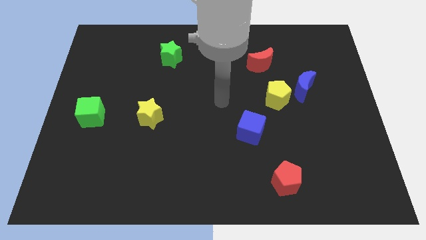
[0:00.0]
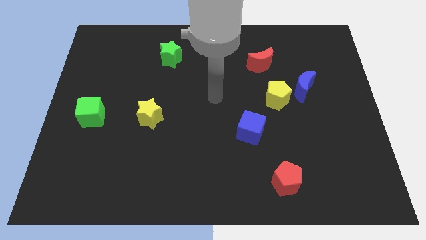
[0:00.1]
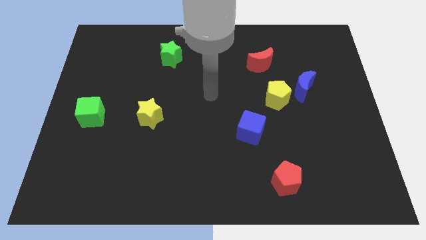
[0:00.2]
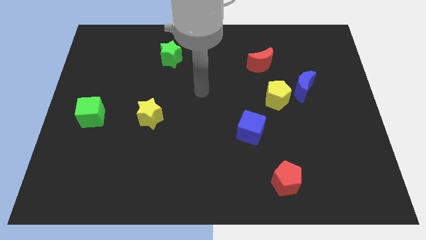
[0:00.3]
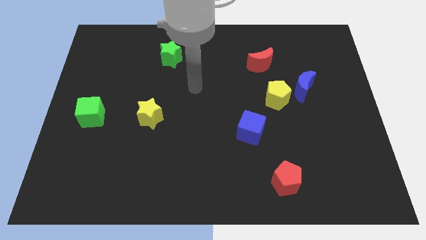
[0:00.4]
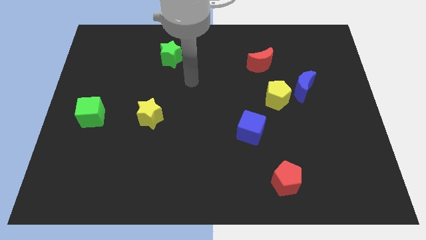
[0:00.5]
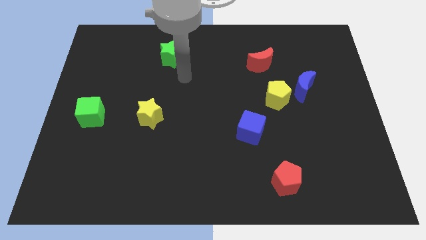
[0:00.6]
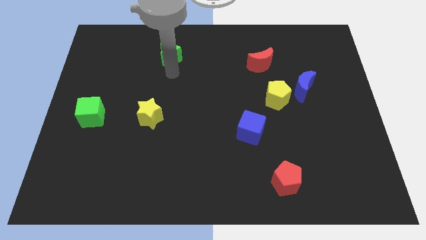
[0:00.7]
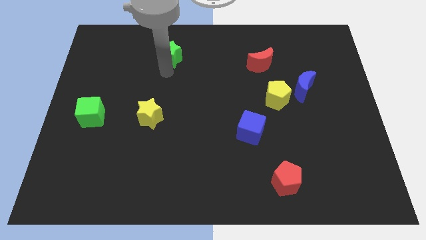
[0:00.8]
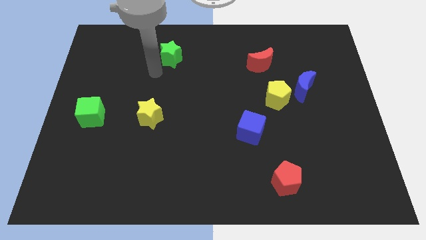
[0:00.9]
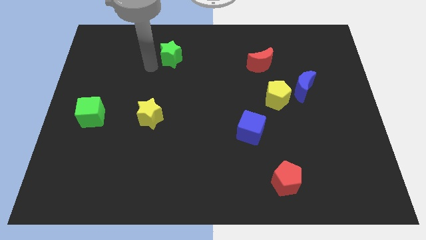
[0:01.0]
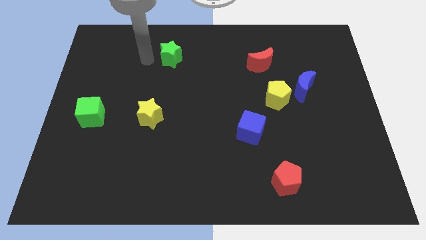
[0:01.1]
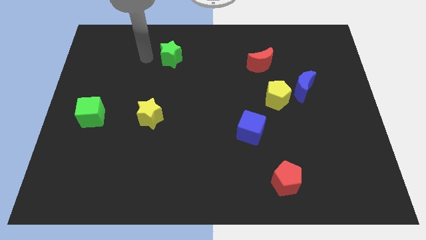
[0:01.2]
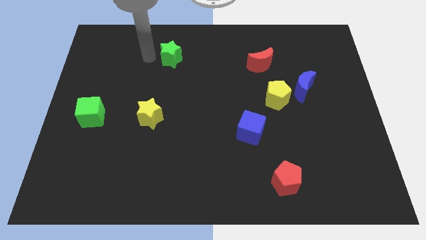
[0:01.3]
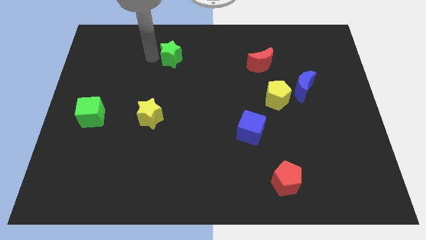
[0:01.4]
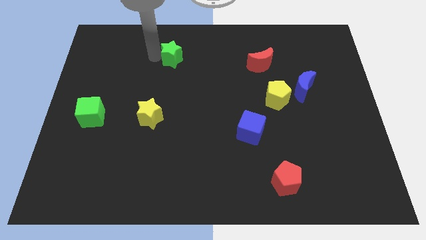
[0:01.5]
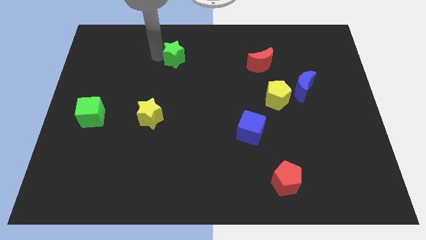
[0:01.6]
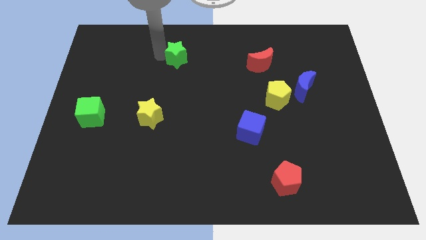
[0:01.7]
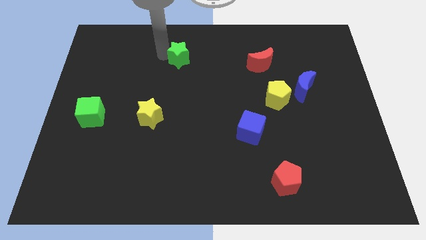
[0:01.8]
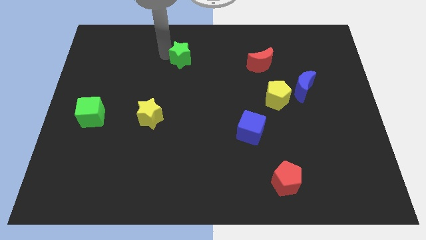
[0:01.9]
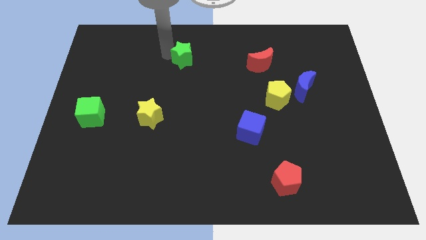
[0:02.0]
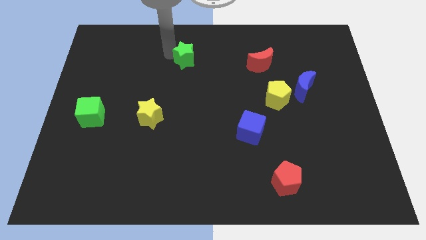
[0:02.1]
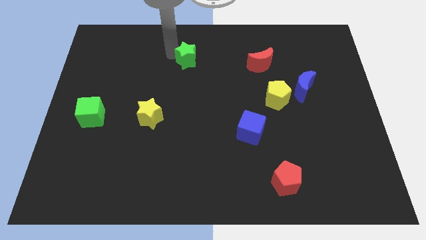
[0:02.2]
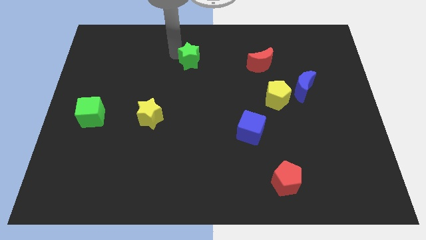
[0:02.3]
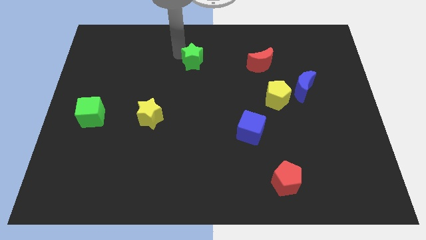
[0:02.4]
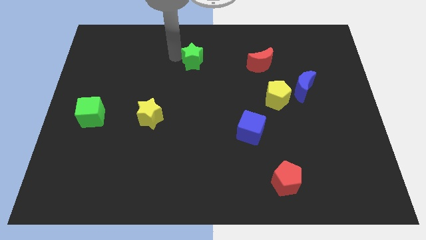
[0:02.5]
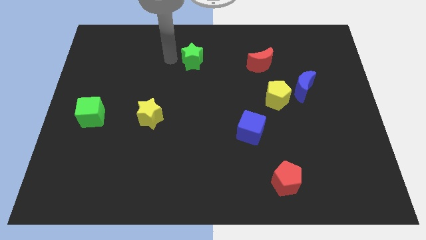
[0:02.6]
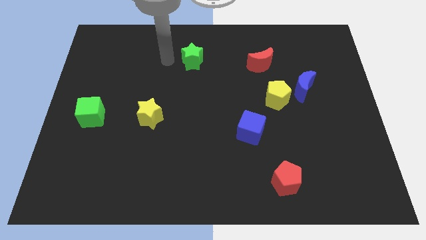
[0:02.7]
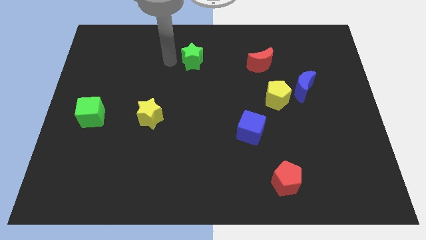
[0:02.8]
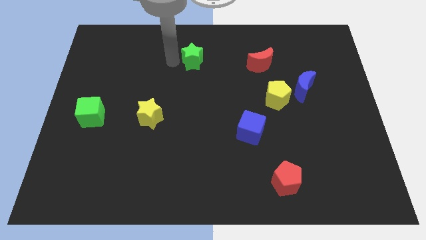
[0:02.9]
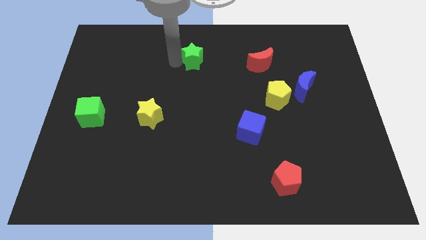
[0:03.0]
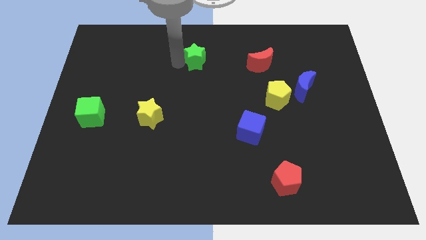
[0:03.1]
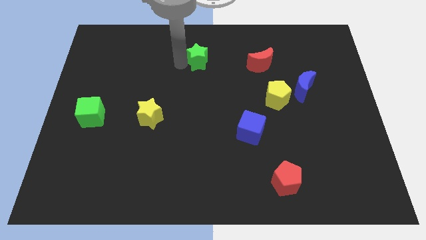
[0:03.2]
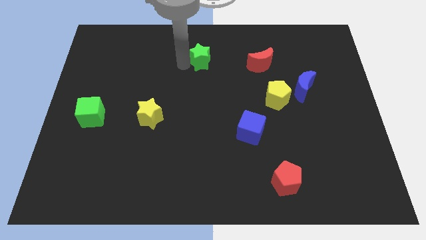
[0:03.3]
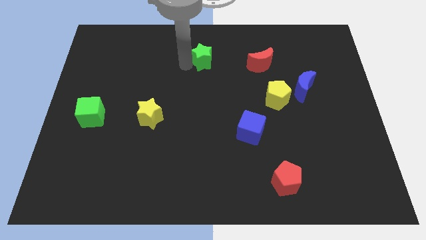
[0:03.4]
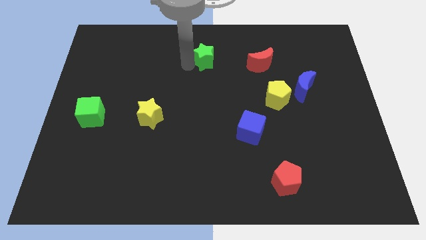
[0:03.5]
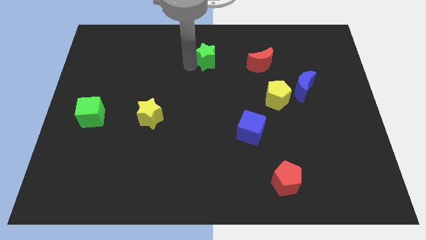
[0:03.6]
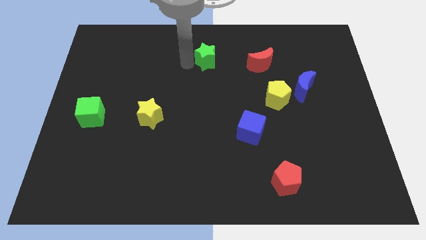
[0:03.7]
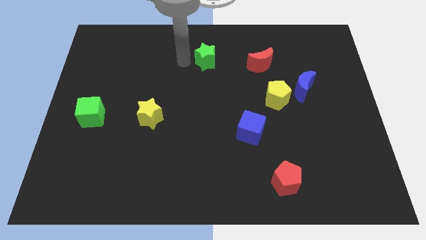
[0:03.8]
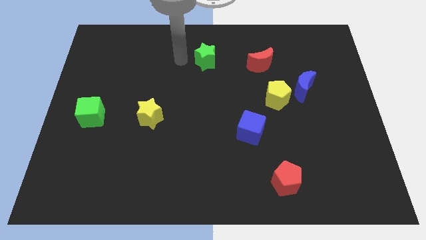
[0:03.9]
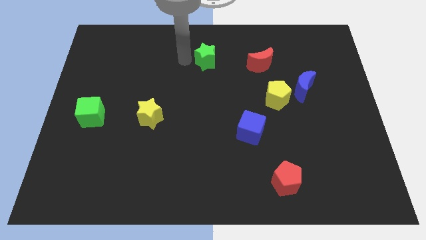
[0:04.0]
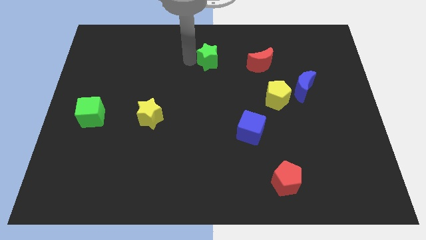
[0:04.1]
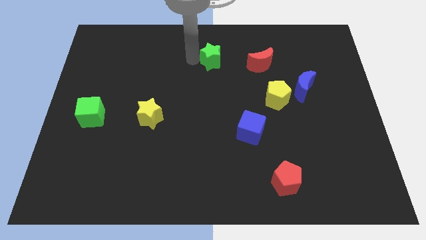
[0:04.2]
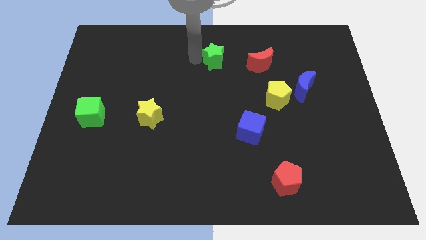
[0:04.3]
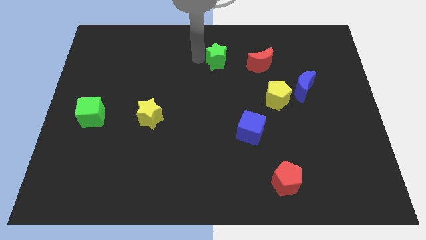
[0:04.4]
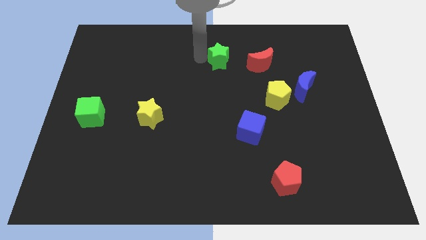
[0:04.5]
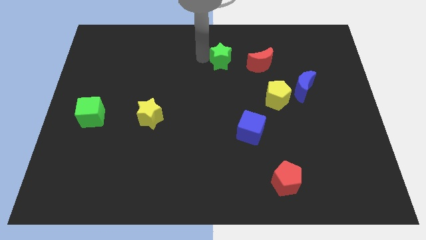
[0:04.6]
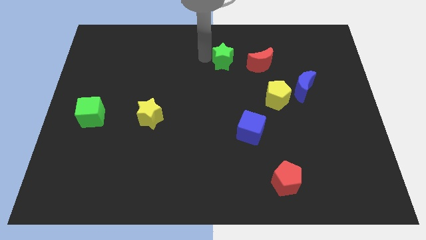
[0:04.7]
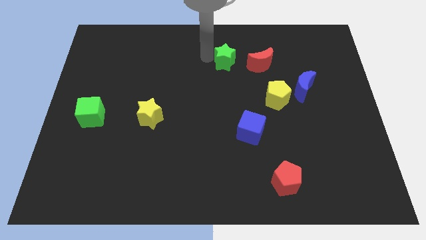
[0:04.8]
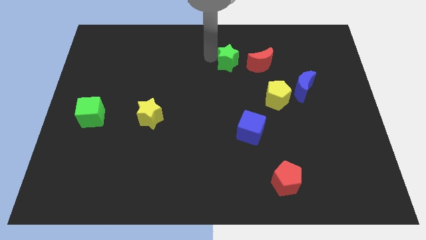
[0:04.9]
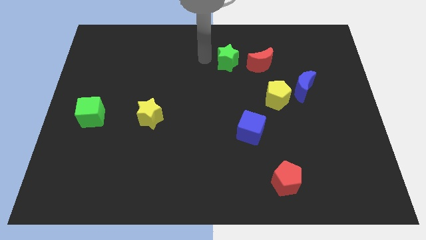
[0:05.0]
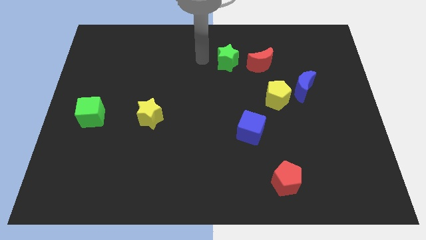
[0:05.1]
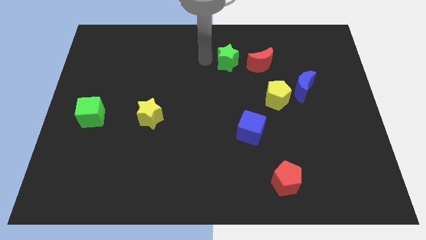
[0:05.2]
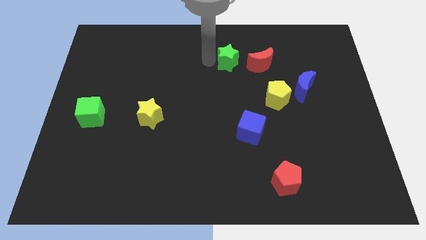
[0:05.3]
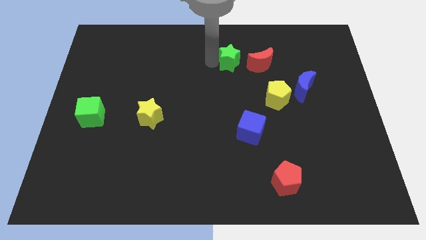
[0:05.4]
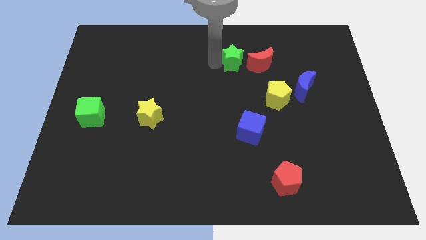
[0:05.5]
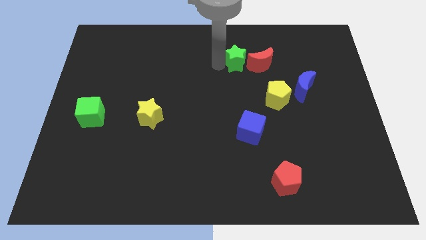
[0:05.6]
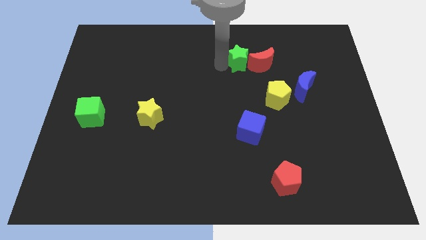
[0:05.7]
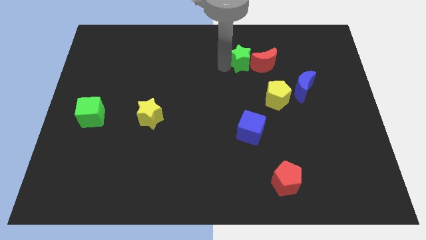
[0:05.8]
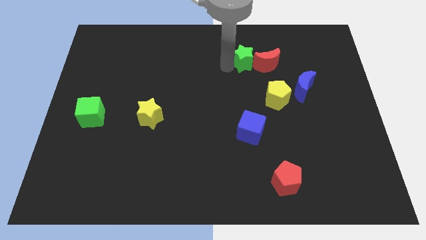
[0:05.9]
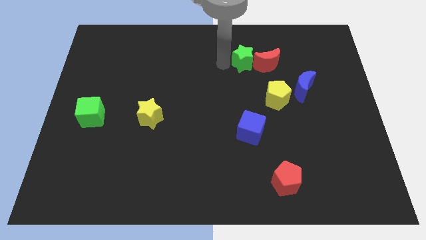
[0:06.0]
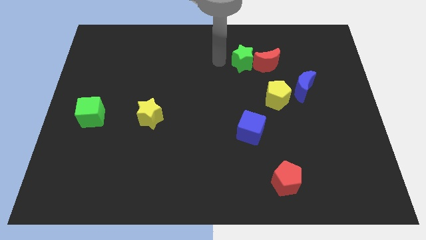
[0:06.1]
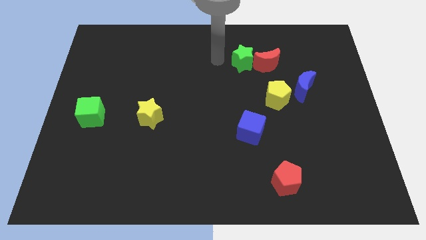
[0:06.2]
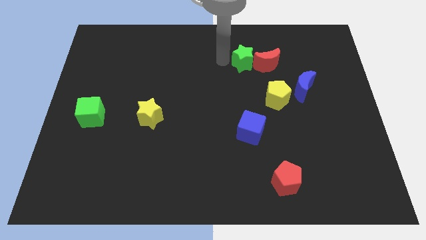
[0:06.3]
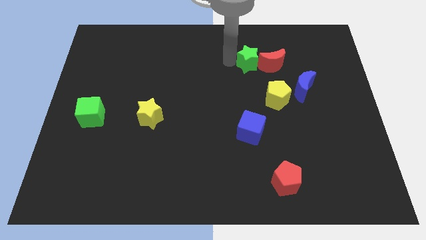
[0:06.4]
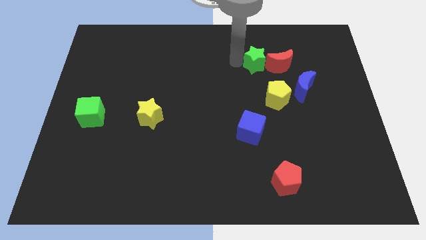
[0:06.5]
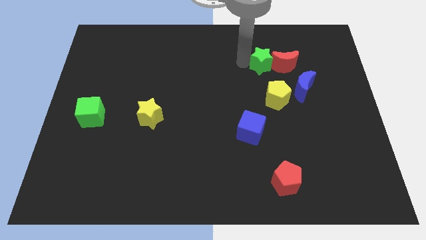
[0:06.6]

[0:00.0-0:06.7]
push the green star to the red moon

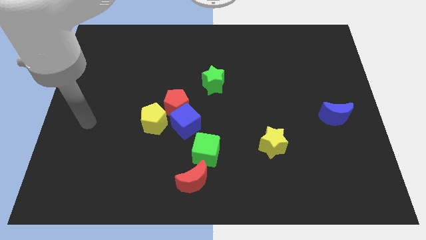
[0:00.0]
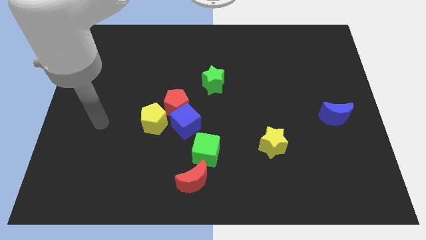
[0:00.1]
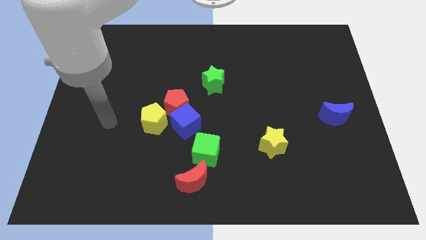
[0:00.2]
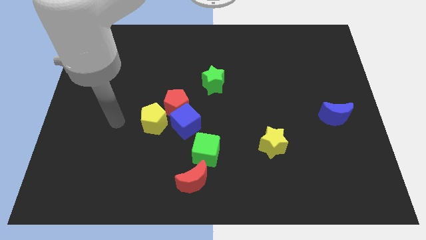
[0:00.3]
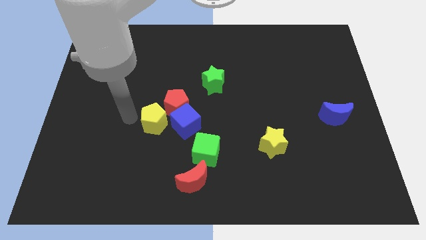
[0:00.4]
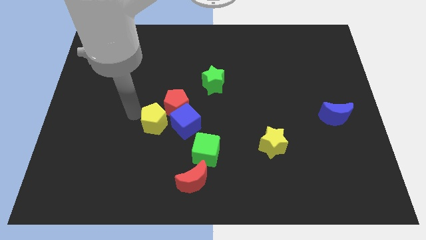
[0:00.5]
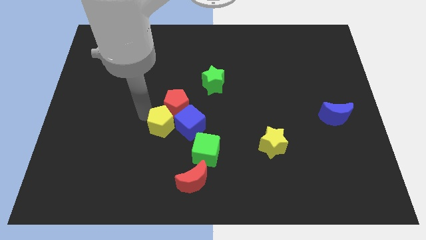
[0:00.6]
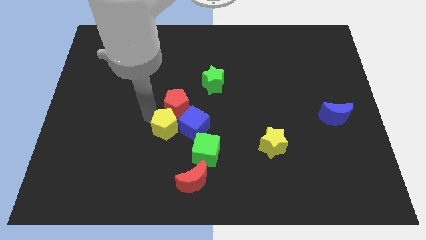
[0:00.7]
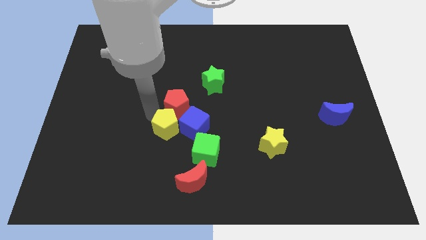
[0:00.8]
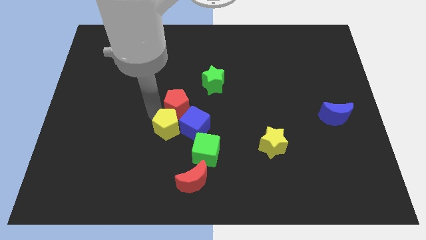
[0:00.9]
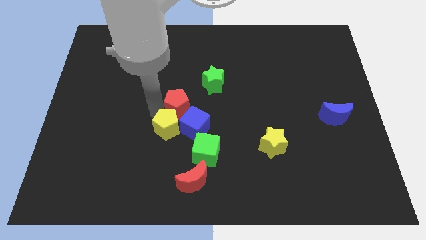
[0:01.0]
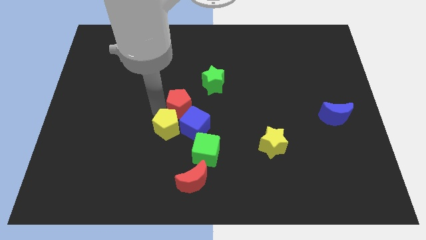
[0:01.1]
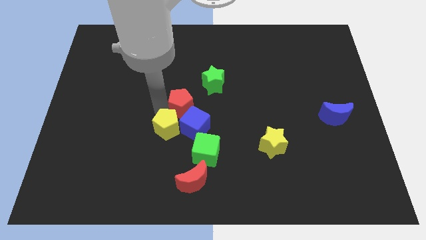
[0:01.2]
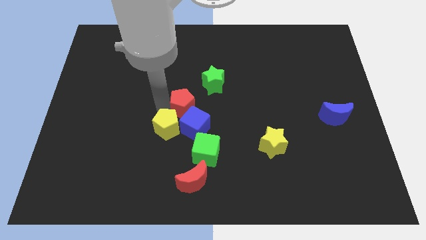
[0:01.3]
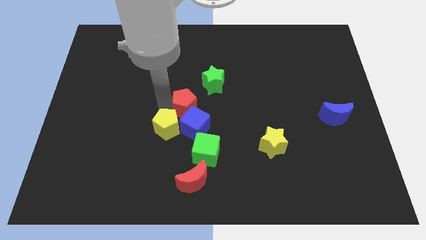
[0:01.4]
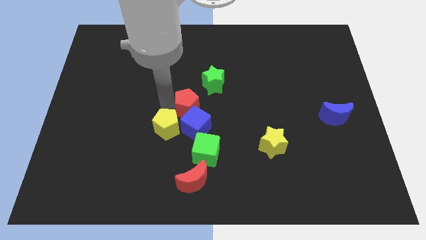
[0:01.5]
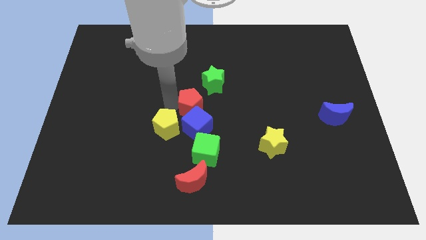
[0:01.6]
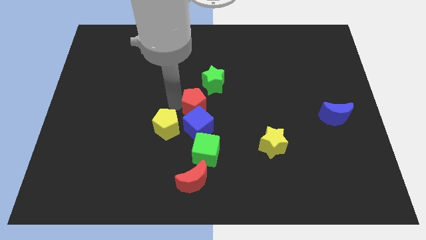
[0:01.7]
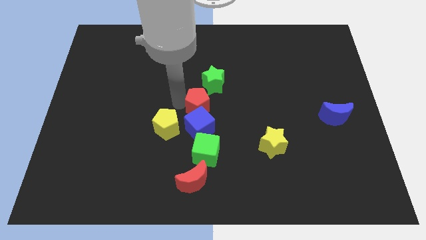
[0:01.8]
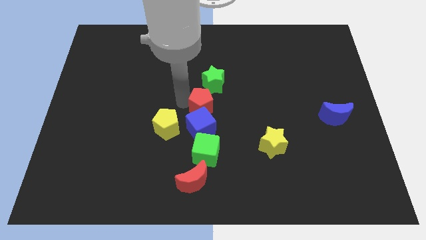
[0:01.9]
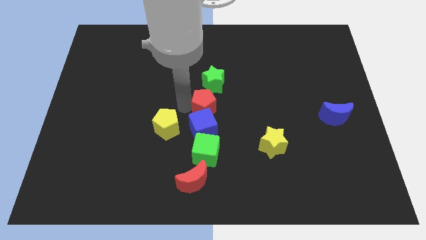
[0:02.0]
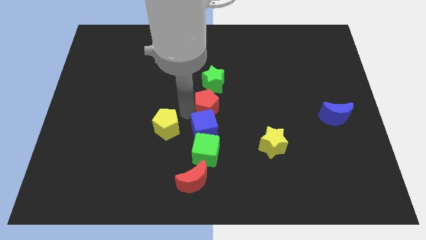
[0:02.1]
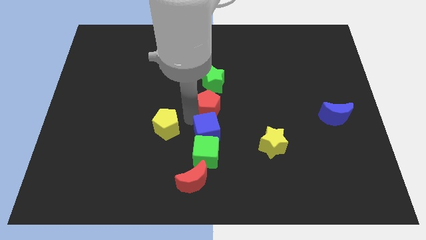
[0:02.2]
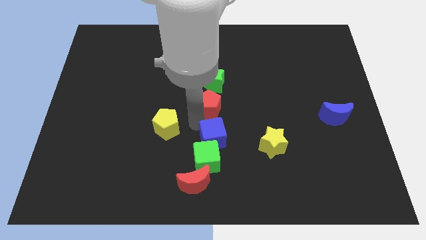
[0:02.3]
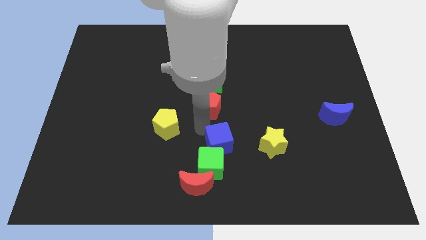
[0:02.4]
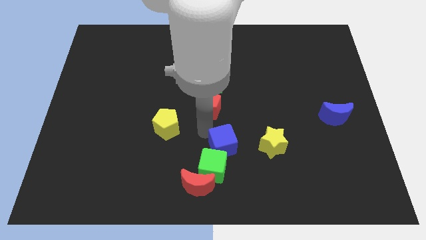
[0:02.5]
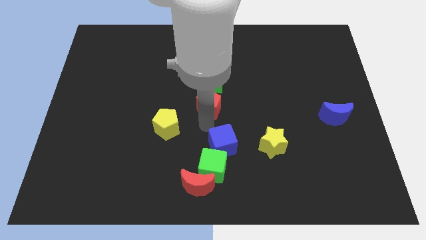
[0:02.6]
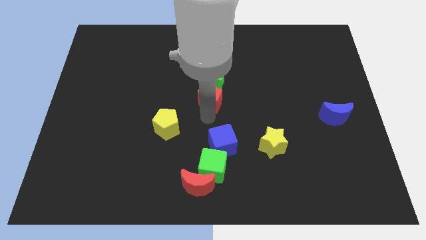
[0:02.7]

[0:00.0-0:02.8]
move the red pentagon close to the green star
